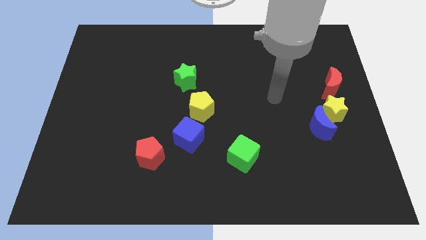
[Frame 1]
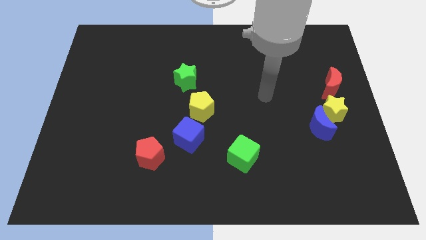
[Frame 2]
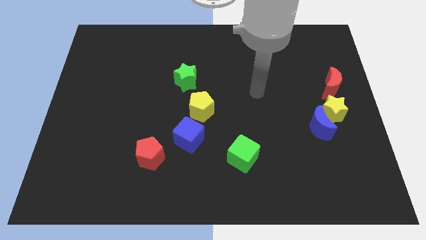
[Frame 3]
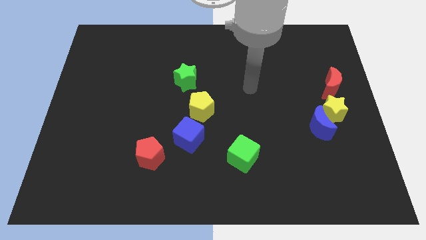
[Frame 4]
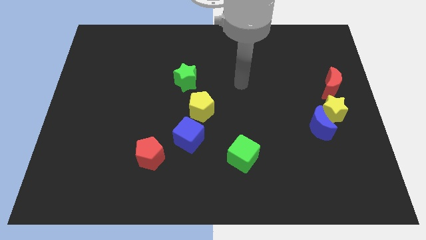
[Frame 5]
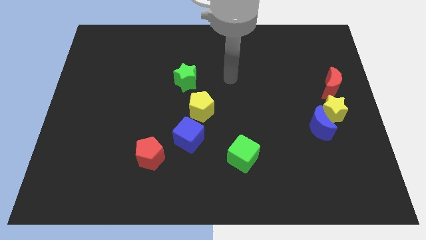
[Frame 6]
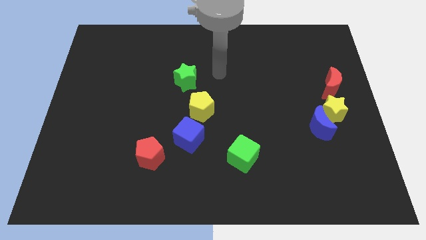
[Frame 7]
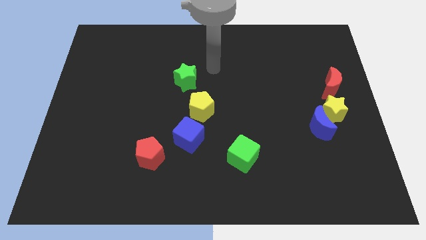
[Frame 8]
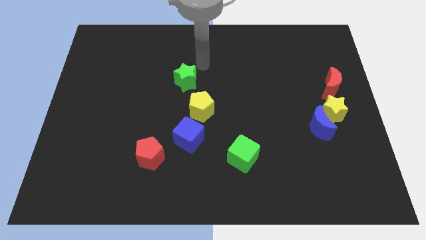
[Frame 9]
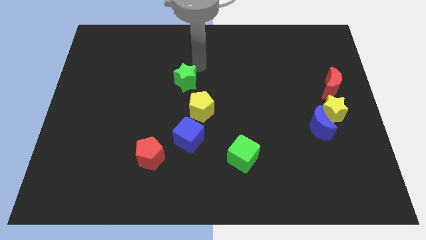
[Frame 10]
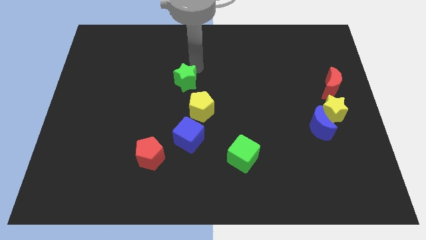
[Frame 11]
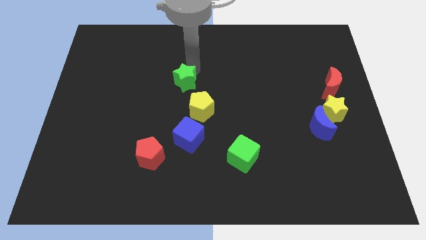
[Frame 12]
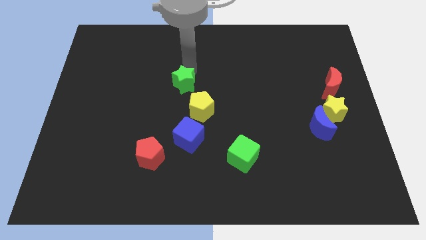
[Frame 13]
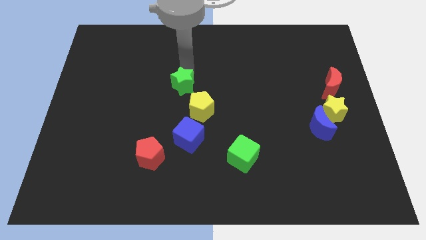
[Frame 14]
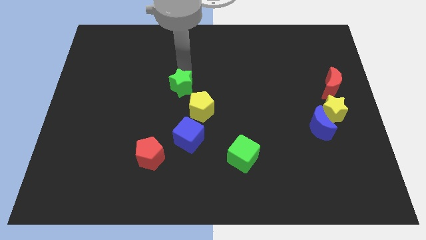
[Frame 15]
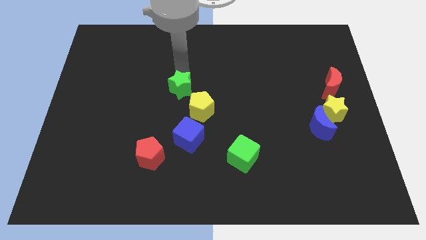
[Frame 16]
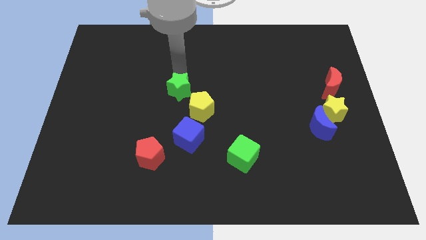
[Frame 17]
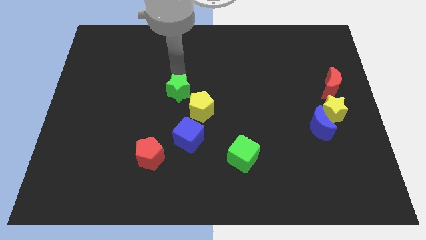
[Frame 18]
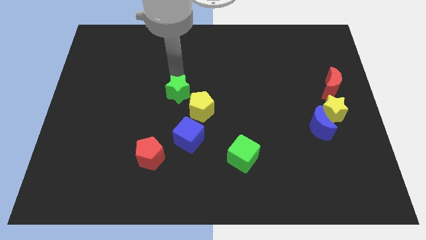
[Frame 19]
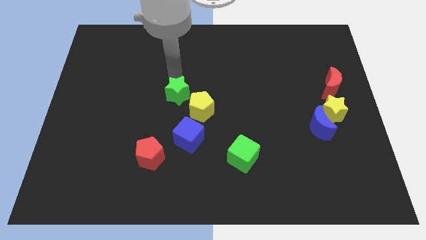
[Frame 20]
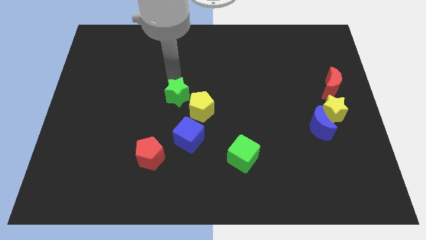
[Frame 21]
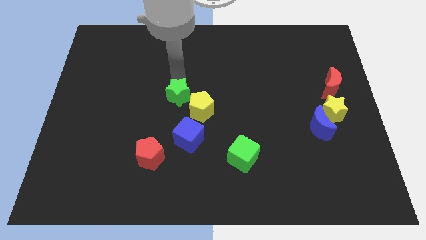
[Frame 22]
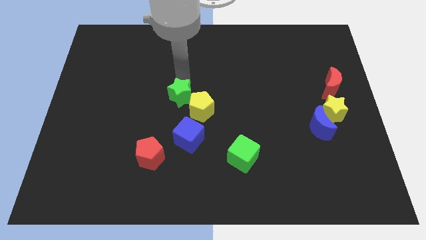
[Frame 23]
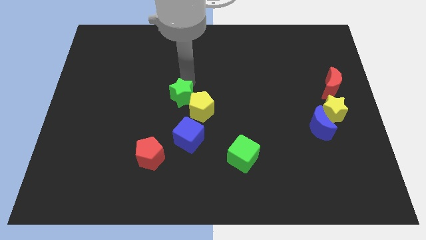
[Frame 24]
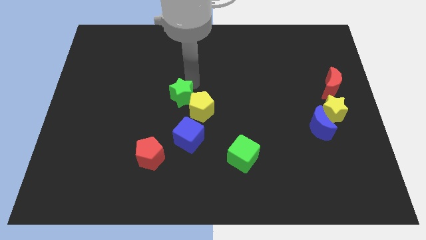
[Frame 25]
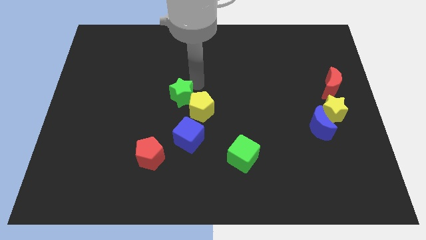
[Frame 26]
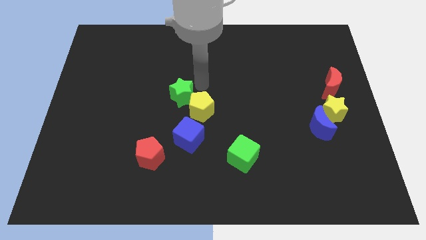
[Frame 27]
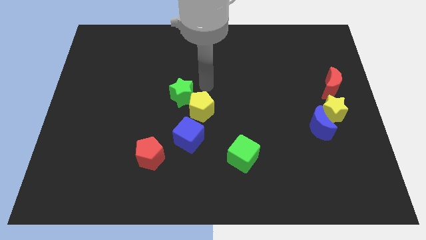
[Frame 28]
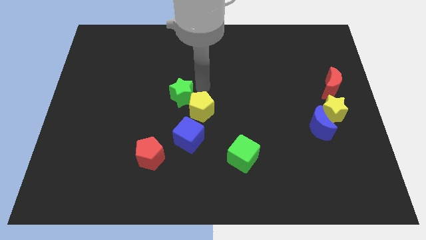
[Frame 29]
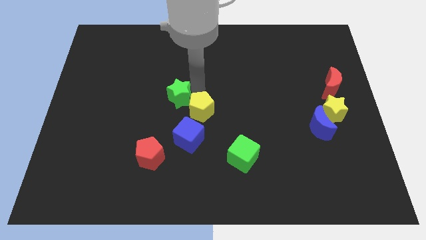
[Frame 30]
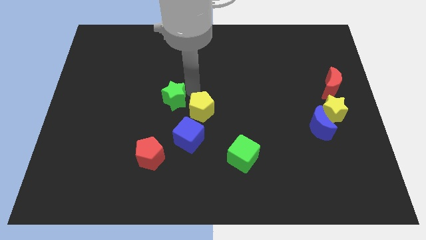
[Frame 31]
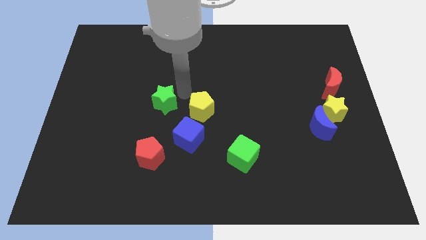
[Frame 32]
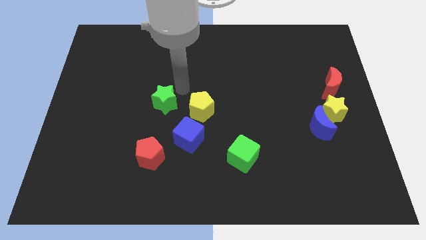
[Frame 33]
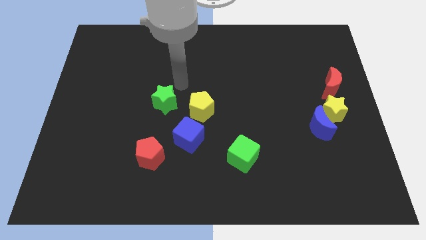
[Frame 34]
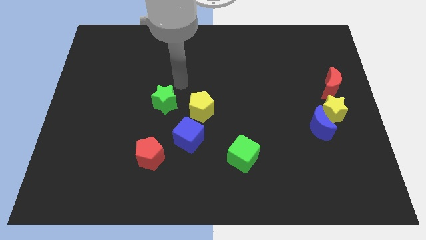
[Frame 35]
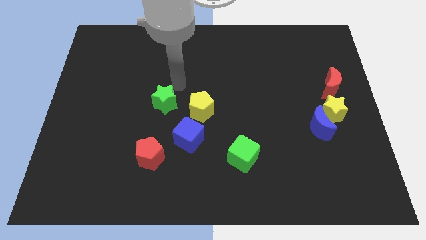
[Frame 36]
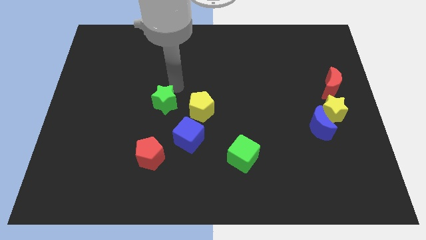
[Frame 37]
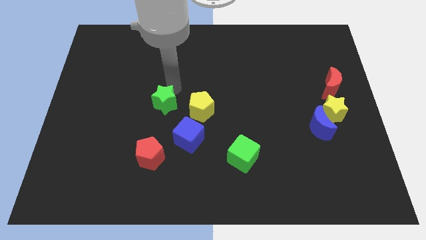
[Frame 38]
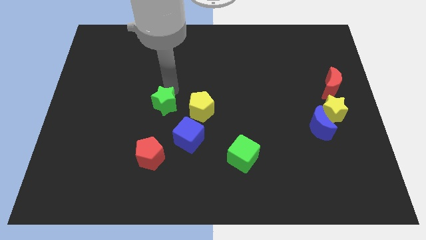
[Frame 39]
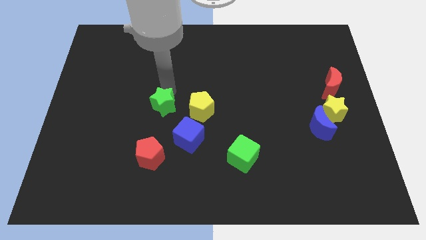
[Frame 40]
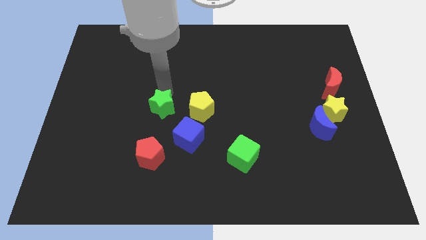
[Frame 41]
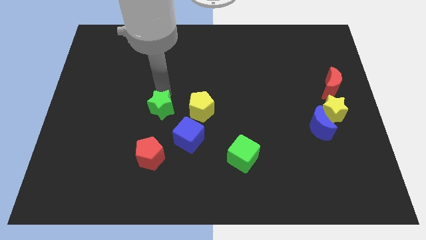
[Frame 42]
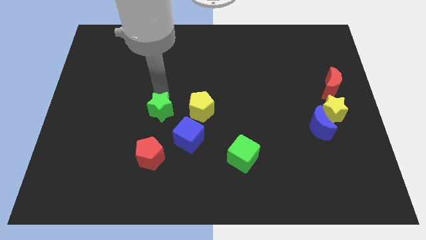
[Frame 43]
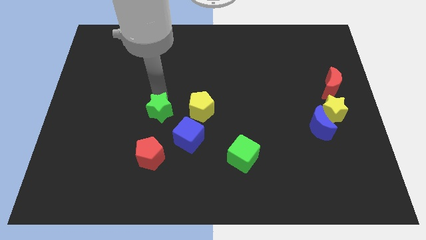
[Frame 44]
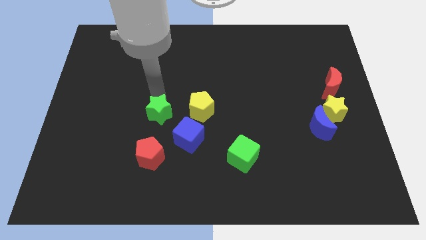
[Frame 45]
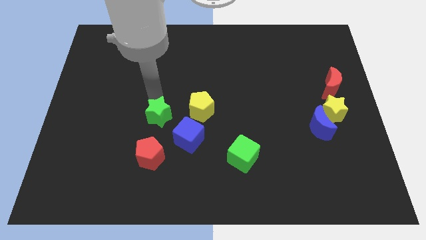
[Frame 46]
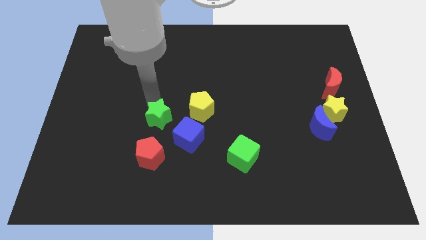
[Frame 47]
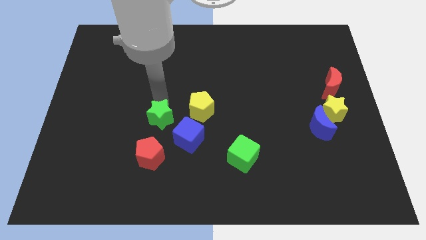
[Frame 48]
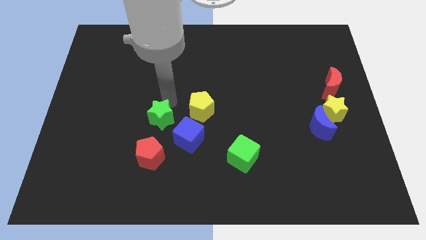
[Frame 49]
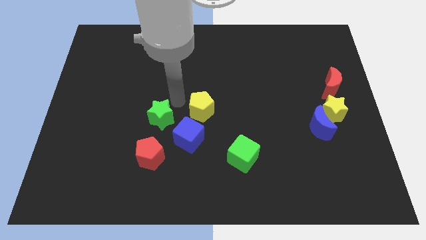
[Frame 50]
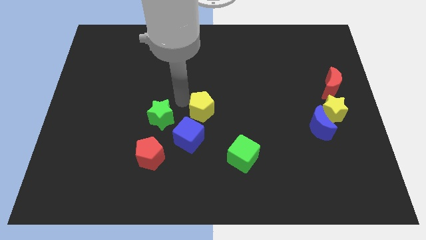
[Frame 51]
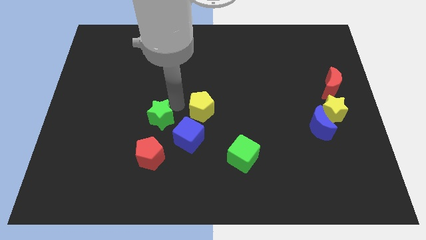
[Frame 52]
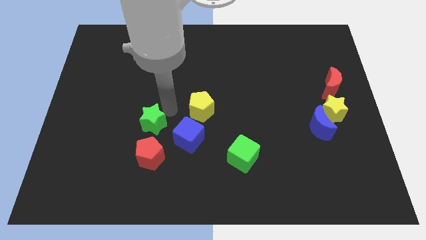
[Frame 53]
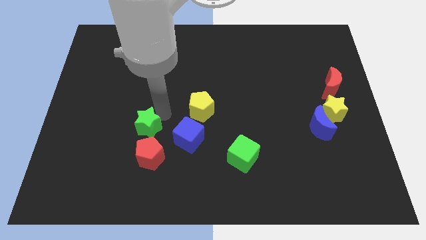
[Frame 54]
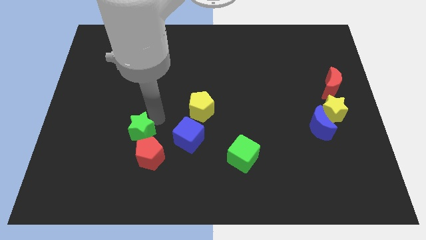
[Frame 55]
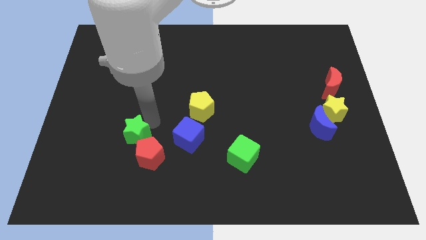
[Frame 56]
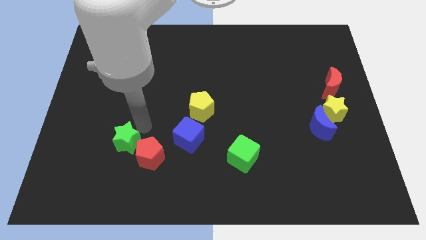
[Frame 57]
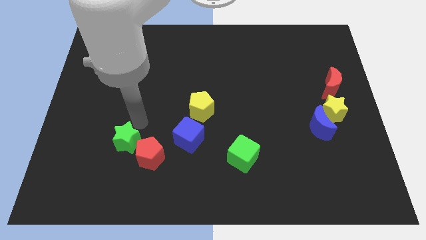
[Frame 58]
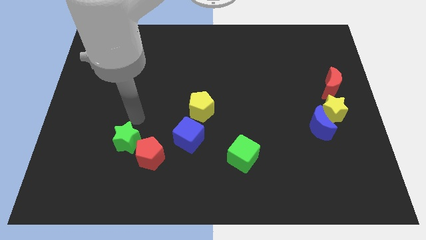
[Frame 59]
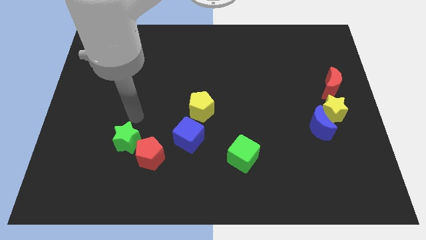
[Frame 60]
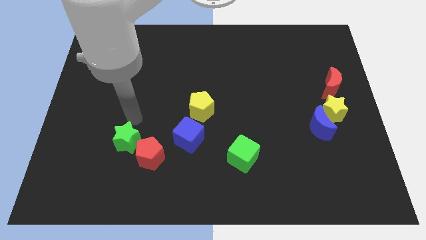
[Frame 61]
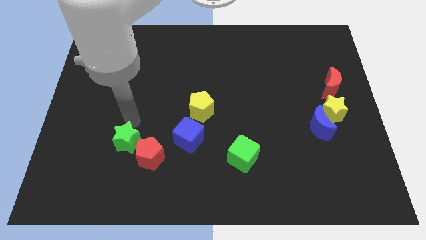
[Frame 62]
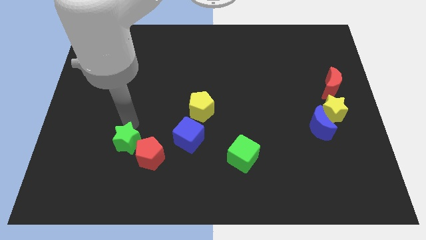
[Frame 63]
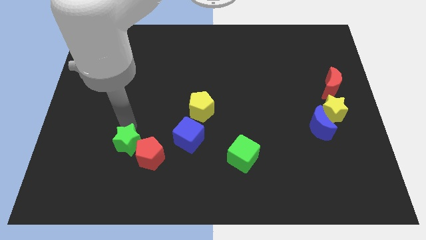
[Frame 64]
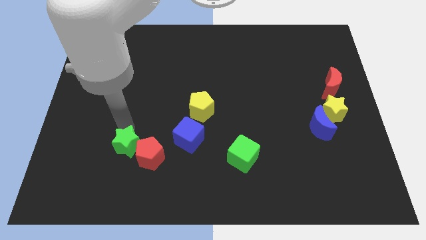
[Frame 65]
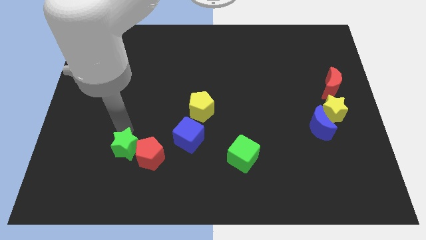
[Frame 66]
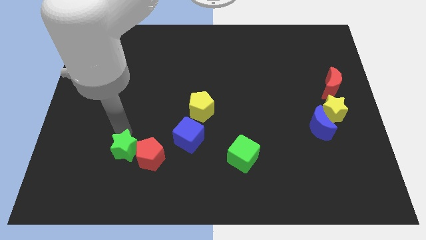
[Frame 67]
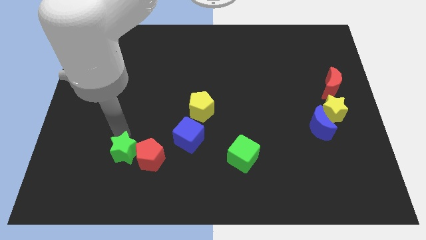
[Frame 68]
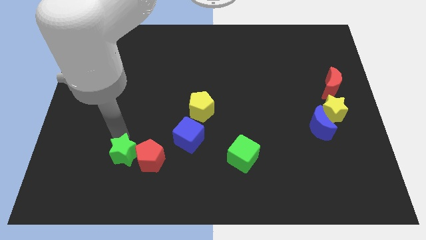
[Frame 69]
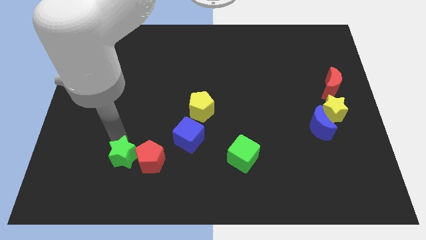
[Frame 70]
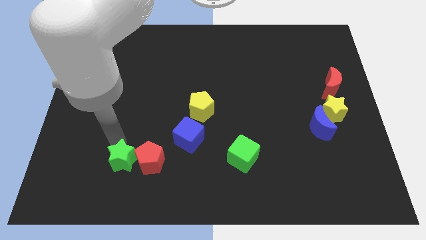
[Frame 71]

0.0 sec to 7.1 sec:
move the green star to the bottom left side of the red pentagon
